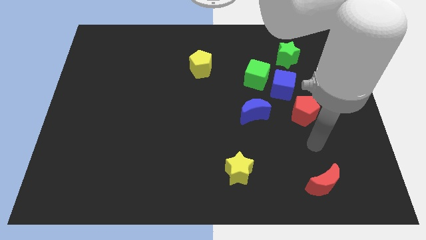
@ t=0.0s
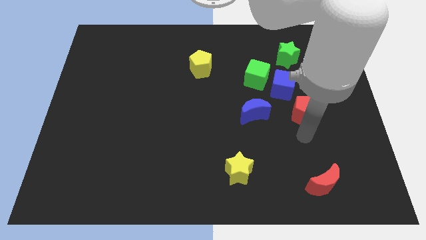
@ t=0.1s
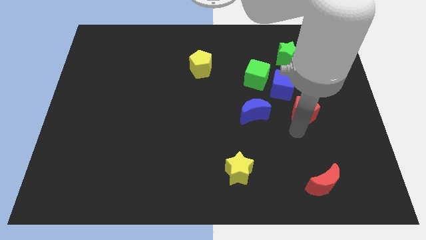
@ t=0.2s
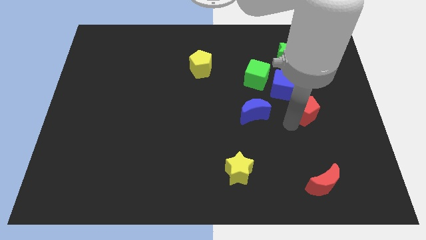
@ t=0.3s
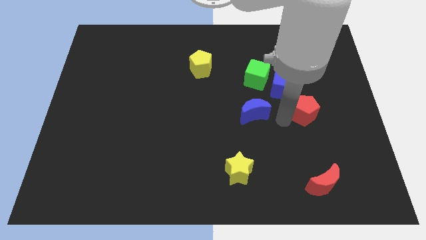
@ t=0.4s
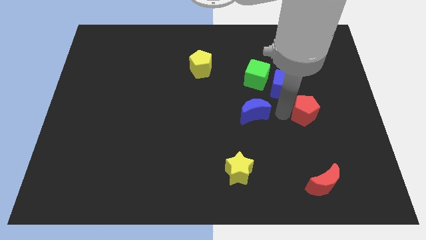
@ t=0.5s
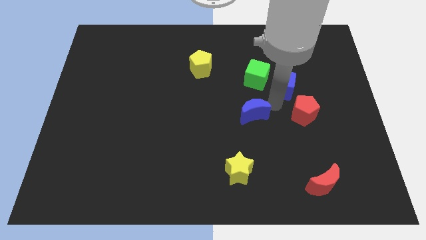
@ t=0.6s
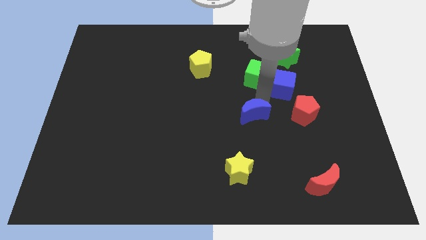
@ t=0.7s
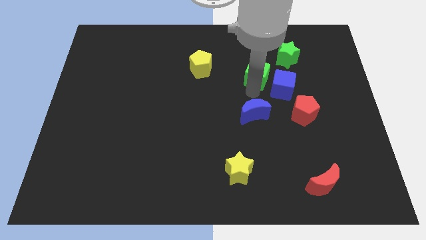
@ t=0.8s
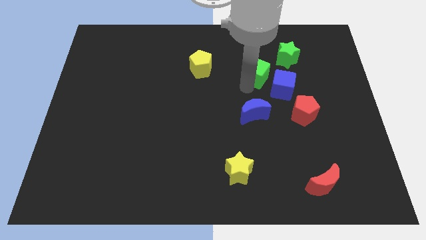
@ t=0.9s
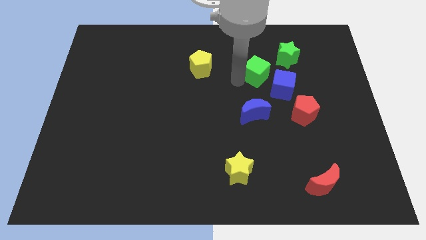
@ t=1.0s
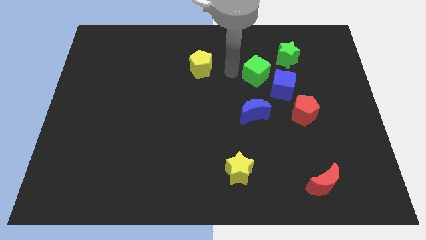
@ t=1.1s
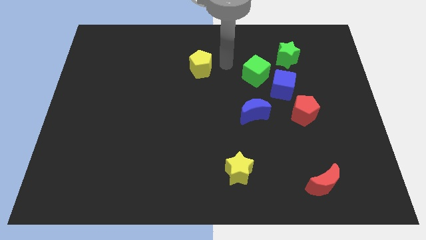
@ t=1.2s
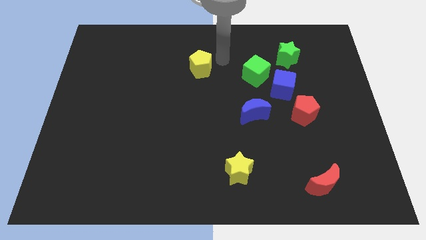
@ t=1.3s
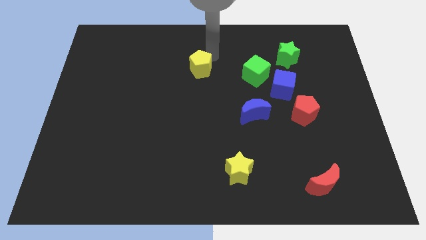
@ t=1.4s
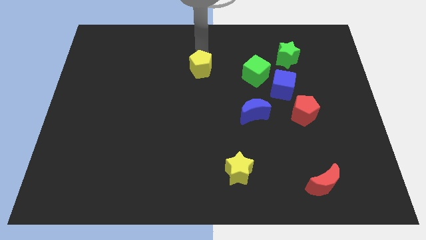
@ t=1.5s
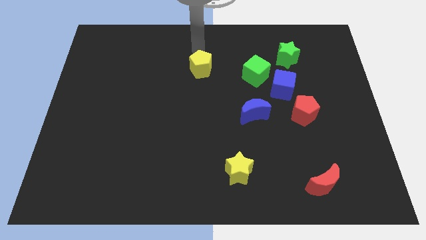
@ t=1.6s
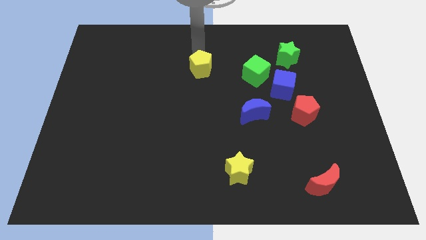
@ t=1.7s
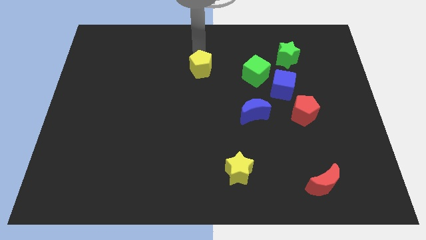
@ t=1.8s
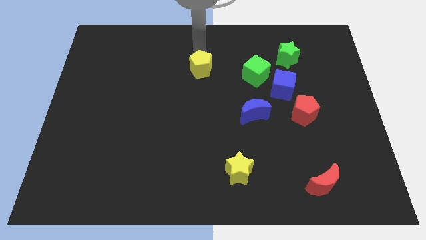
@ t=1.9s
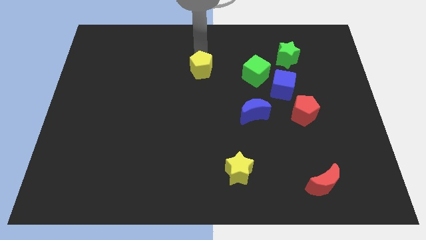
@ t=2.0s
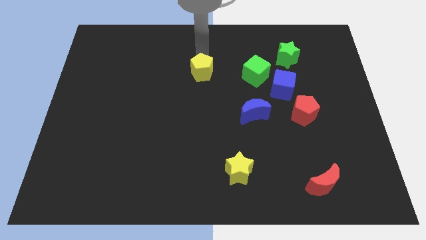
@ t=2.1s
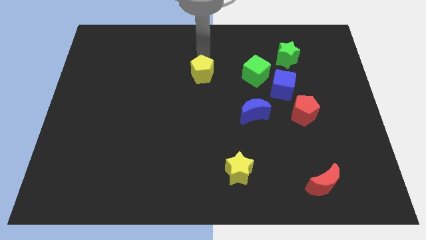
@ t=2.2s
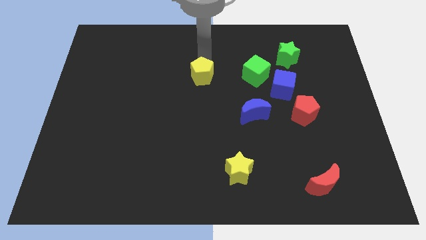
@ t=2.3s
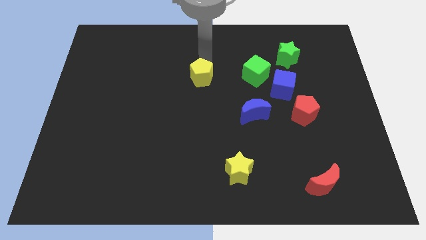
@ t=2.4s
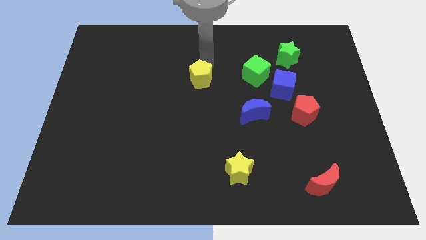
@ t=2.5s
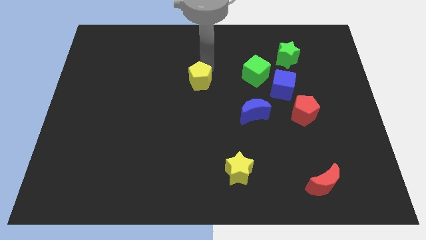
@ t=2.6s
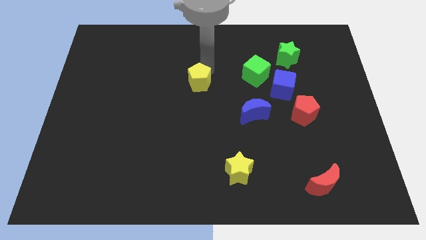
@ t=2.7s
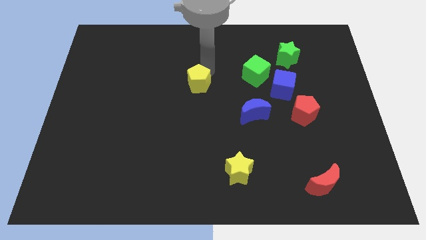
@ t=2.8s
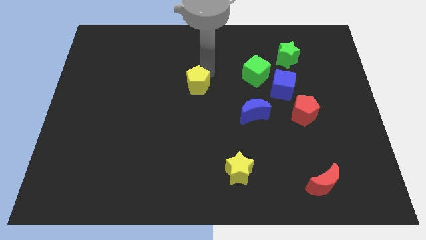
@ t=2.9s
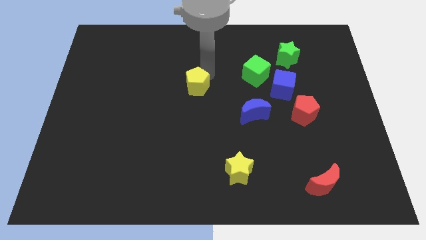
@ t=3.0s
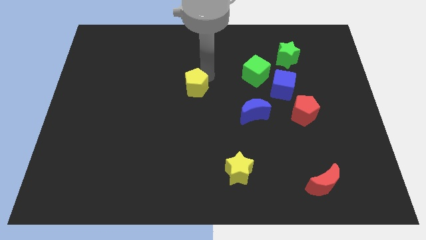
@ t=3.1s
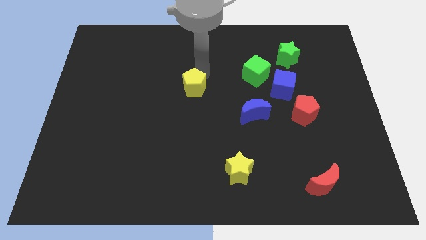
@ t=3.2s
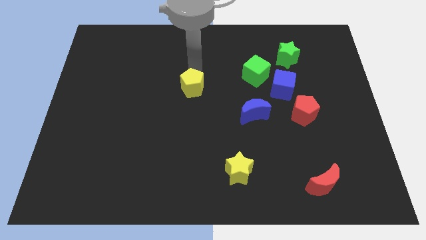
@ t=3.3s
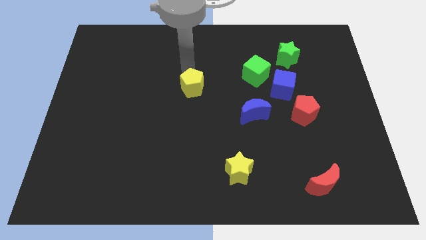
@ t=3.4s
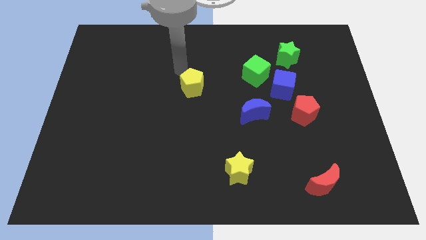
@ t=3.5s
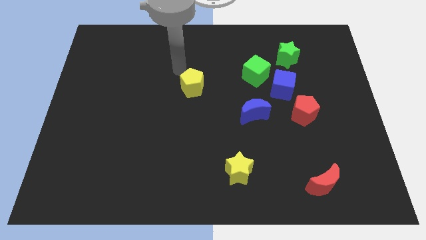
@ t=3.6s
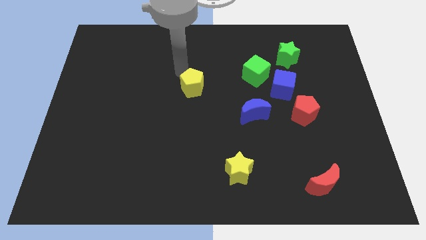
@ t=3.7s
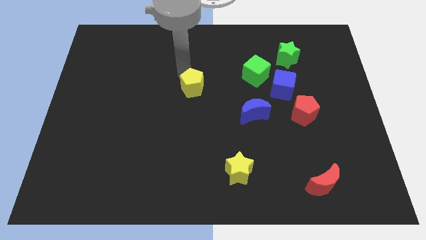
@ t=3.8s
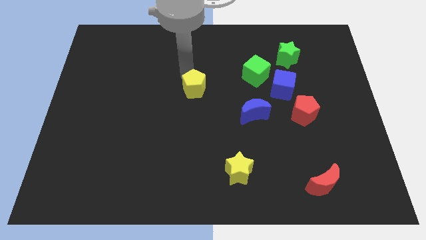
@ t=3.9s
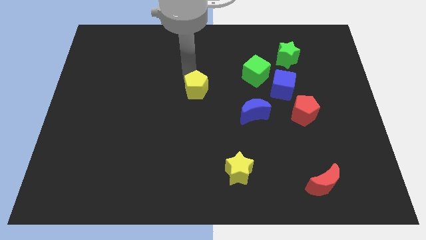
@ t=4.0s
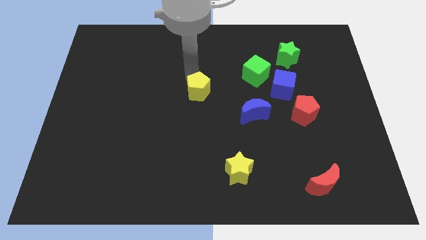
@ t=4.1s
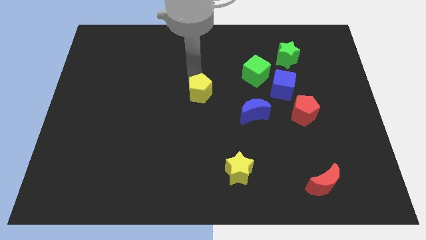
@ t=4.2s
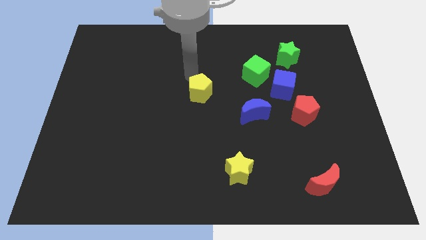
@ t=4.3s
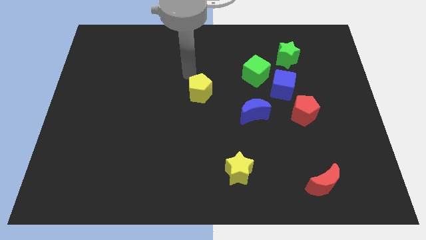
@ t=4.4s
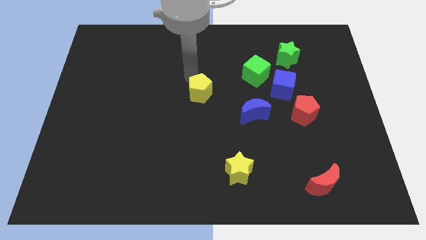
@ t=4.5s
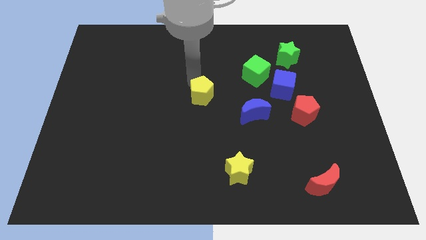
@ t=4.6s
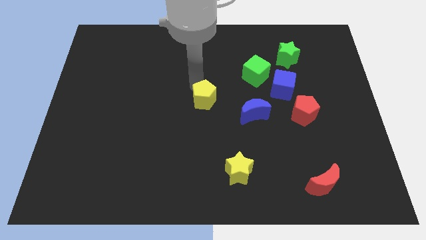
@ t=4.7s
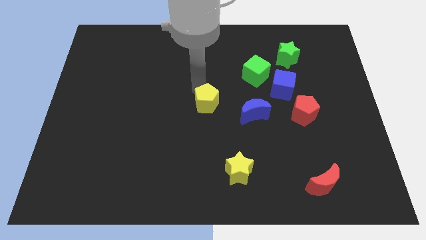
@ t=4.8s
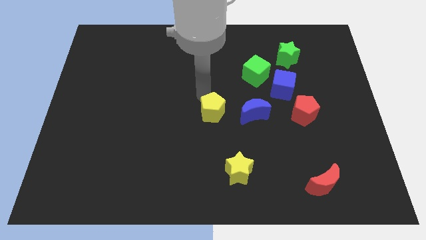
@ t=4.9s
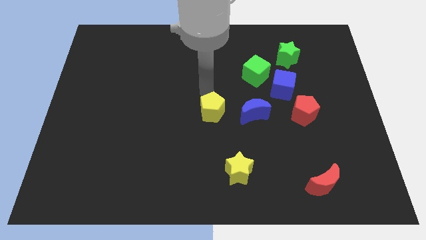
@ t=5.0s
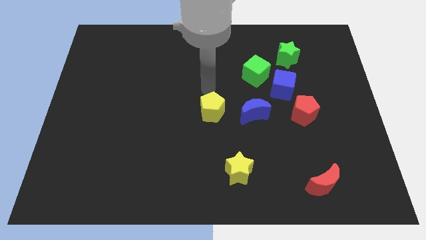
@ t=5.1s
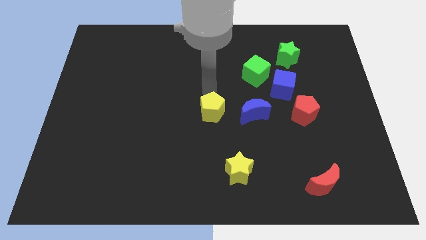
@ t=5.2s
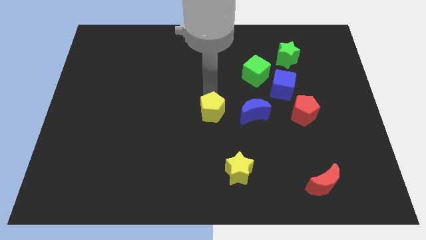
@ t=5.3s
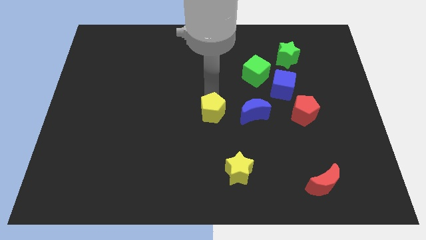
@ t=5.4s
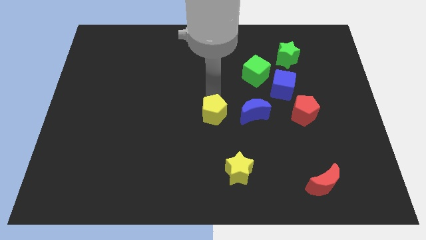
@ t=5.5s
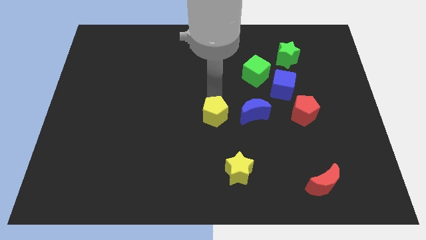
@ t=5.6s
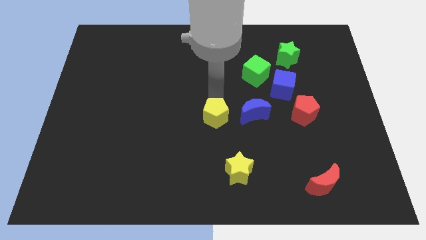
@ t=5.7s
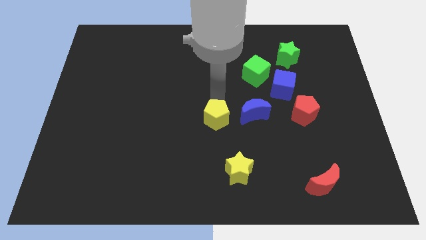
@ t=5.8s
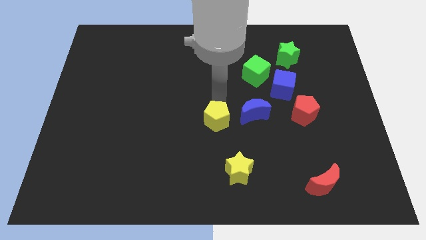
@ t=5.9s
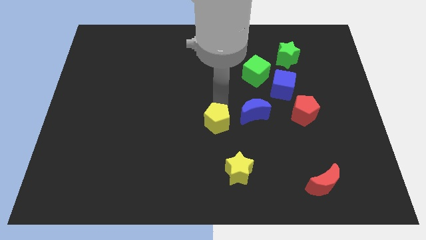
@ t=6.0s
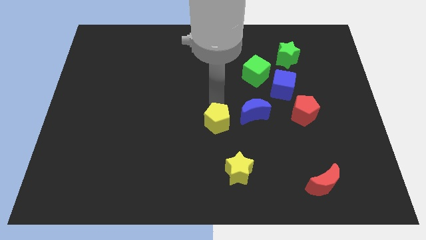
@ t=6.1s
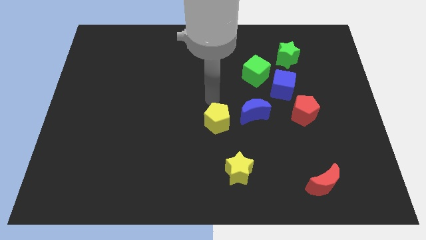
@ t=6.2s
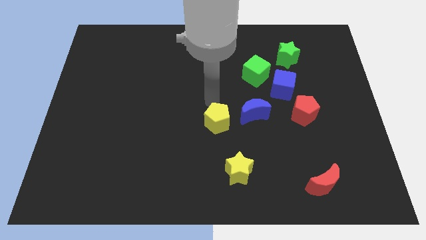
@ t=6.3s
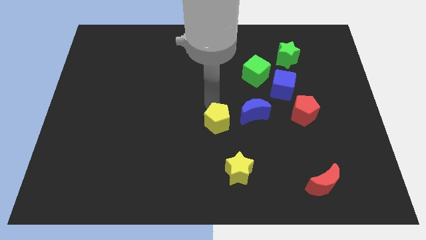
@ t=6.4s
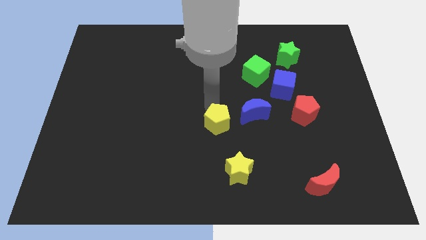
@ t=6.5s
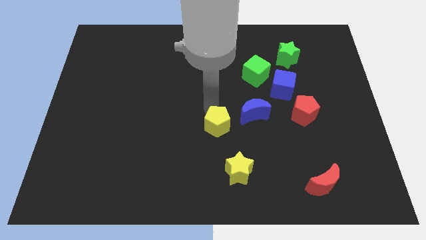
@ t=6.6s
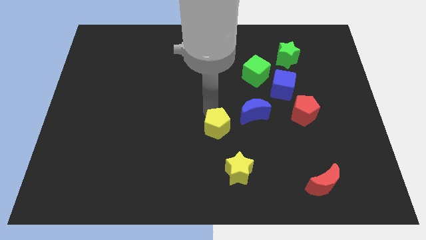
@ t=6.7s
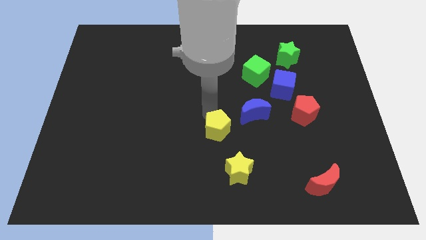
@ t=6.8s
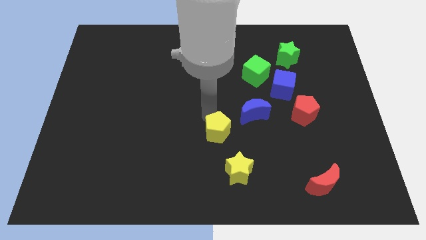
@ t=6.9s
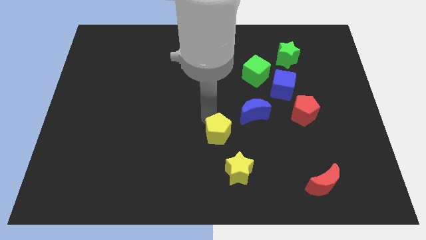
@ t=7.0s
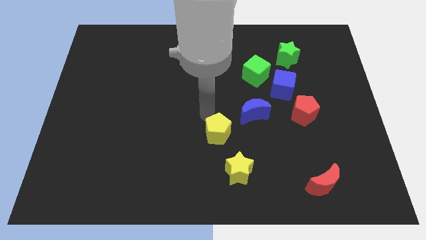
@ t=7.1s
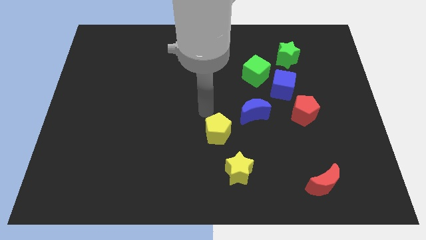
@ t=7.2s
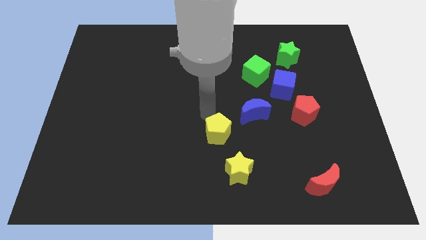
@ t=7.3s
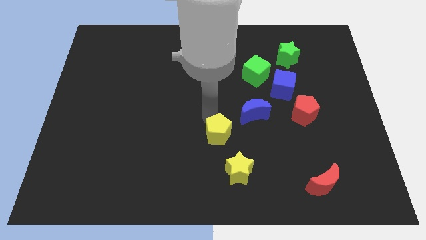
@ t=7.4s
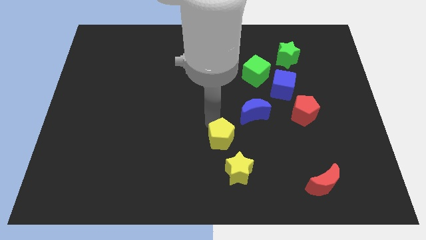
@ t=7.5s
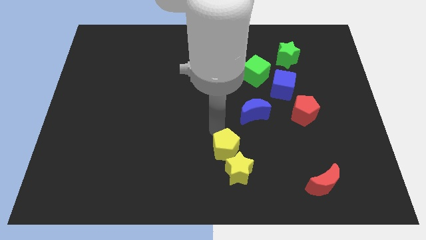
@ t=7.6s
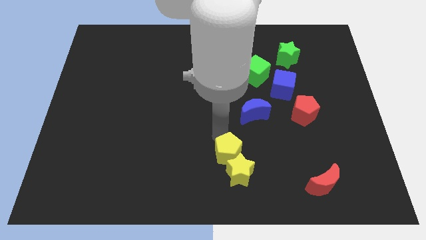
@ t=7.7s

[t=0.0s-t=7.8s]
slide the yellow pentagon close to the yellow star
